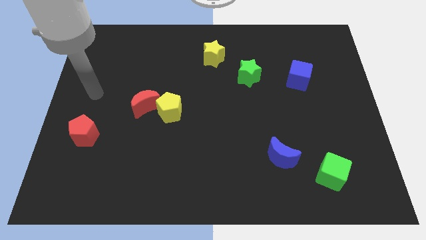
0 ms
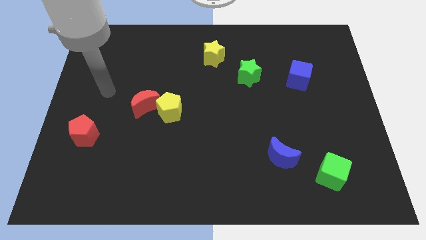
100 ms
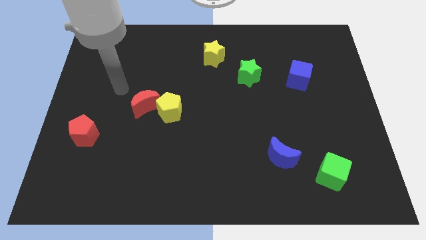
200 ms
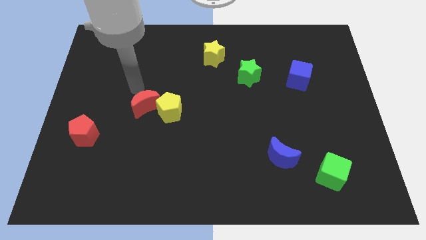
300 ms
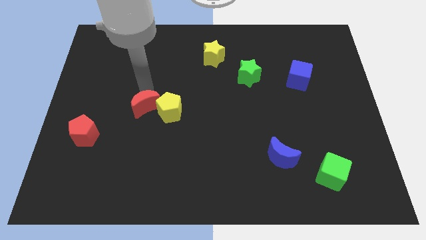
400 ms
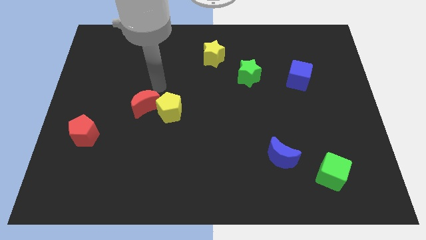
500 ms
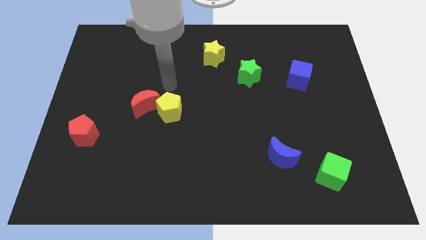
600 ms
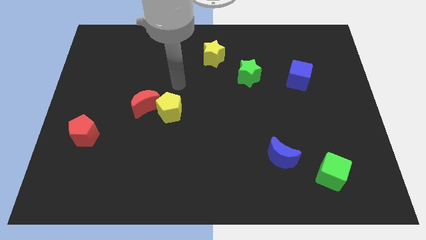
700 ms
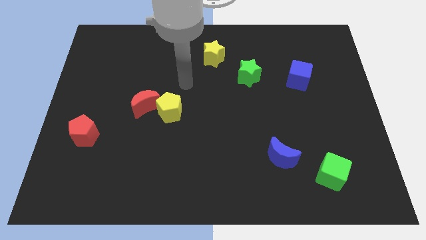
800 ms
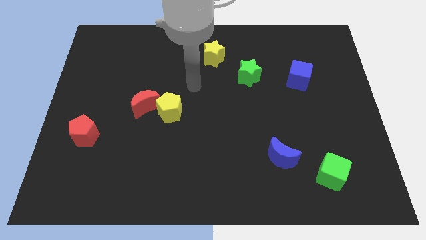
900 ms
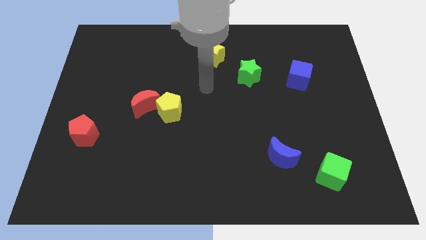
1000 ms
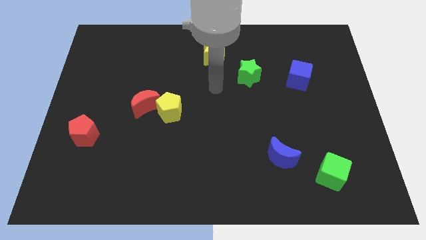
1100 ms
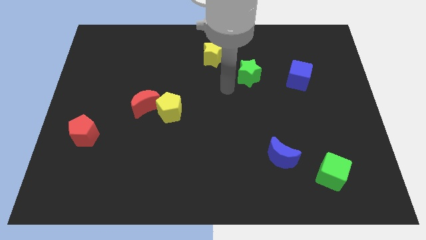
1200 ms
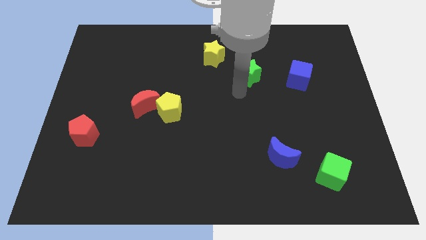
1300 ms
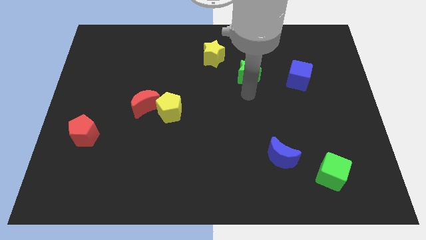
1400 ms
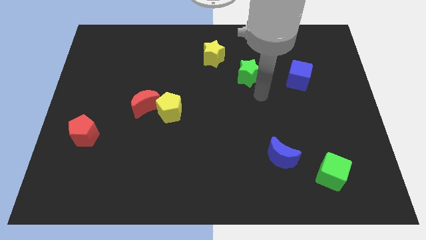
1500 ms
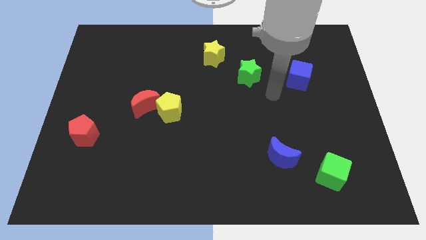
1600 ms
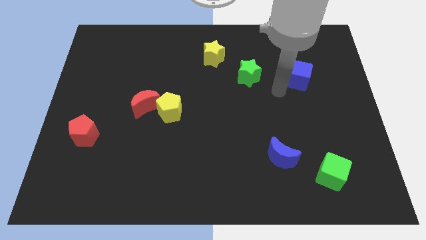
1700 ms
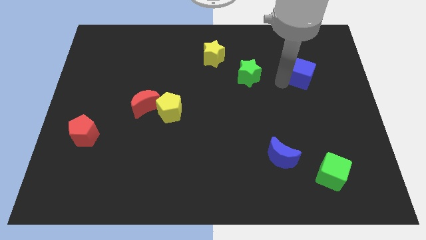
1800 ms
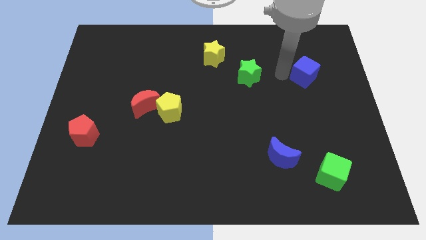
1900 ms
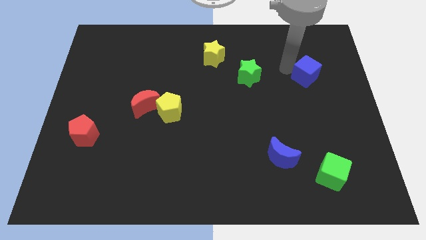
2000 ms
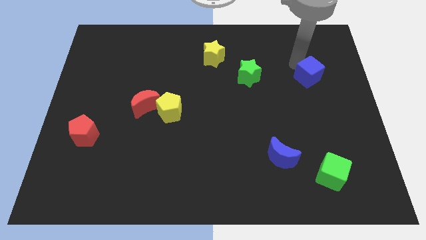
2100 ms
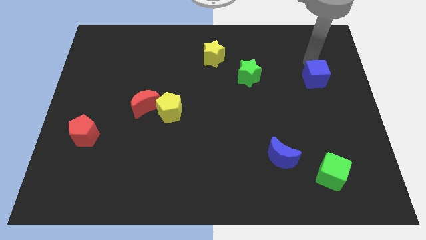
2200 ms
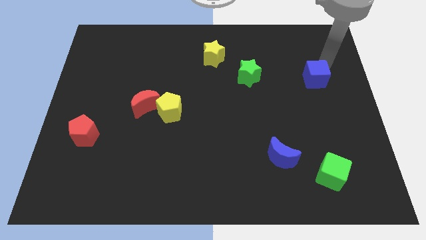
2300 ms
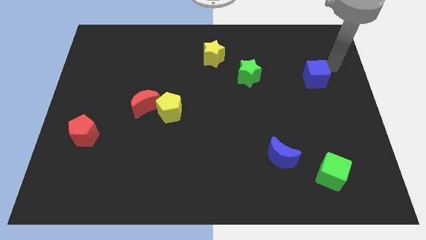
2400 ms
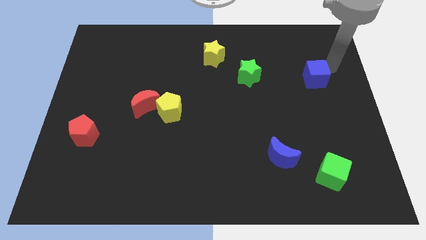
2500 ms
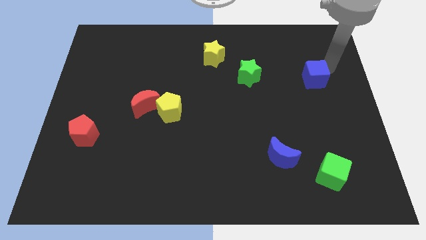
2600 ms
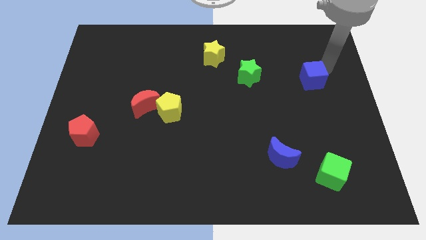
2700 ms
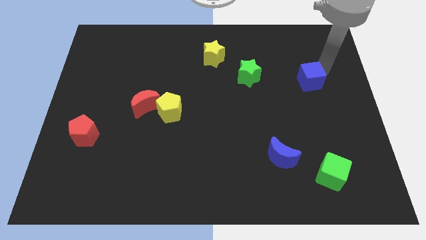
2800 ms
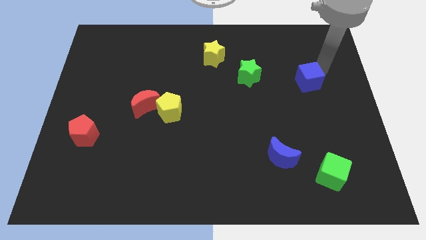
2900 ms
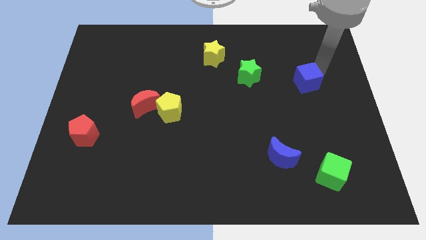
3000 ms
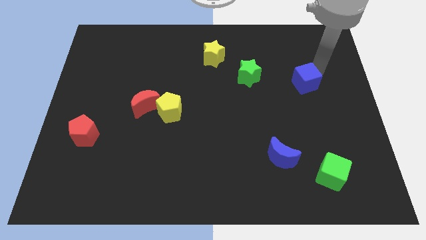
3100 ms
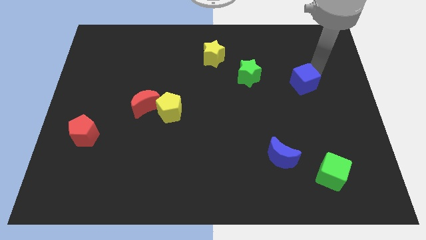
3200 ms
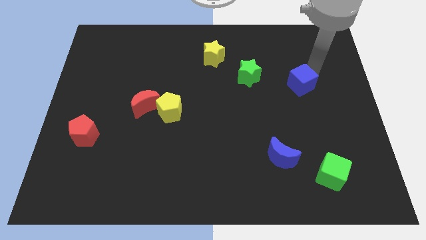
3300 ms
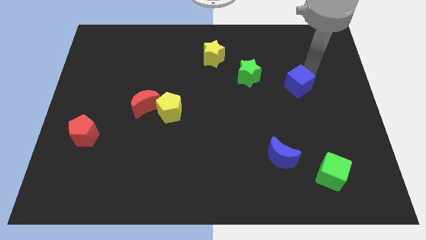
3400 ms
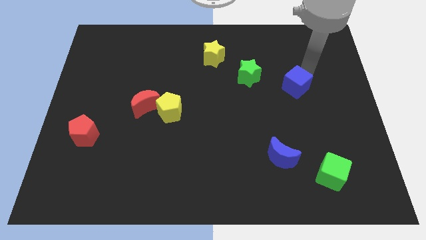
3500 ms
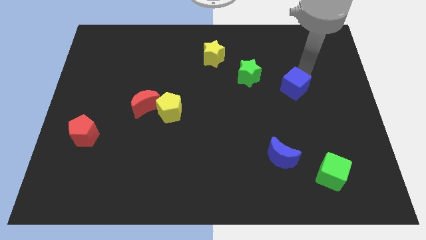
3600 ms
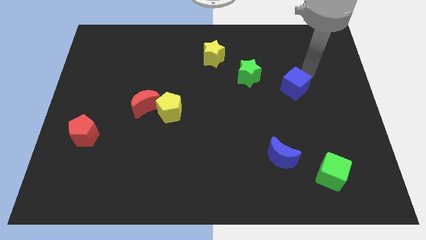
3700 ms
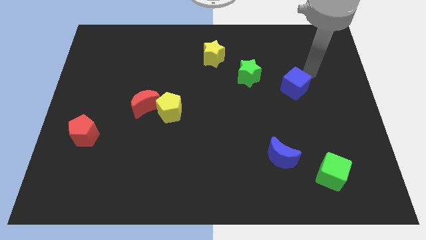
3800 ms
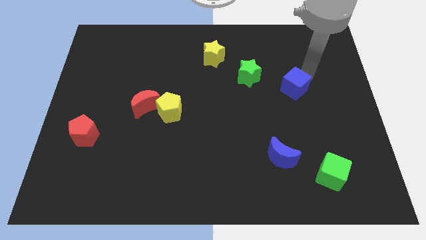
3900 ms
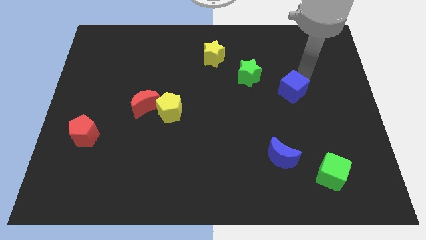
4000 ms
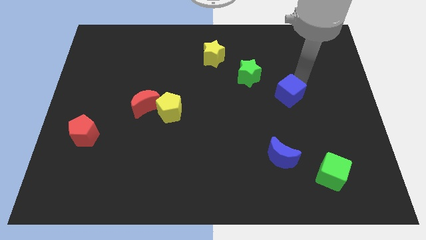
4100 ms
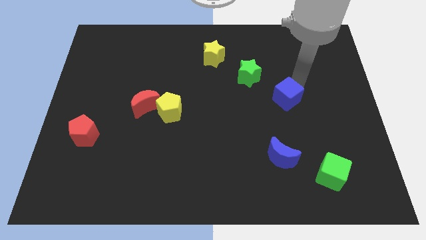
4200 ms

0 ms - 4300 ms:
slide the blue cube down and left diagonally somewhat

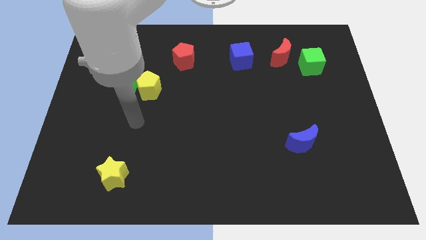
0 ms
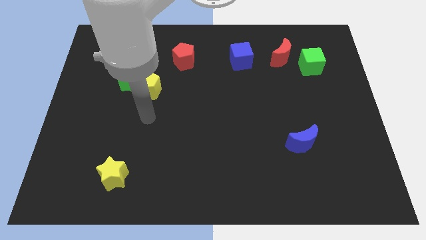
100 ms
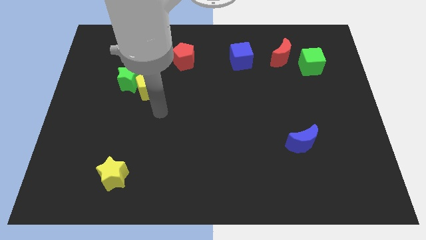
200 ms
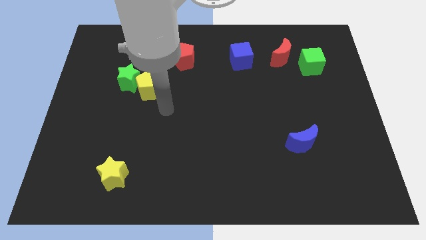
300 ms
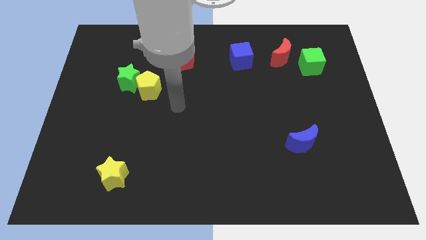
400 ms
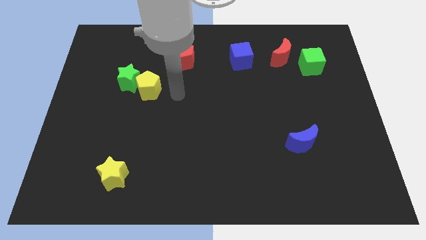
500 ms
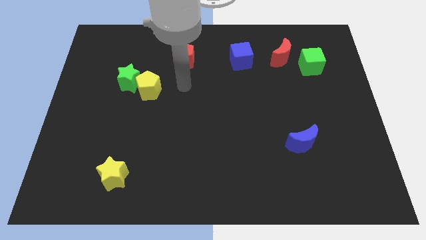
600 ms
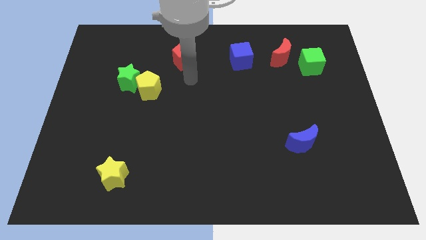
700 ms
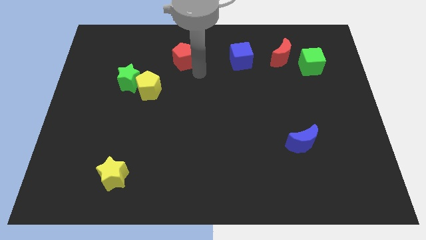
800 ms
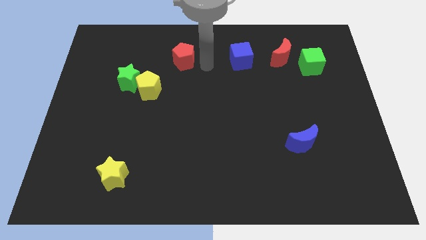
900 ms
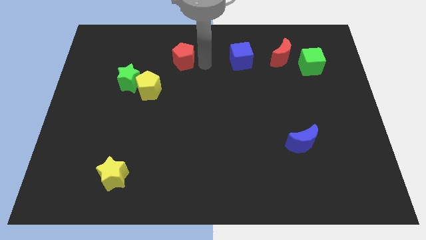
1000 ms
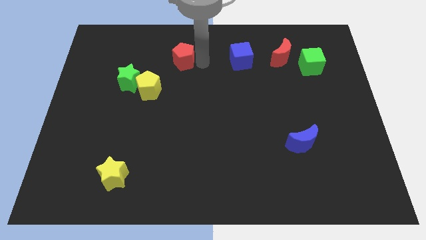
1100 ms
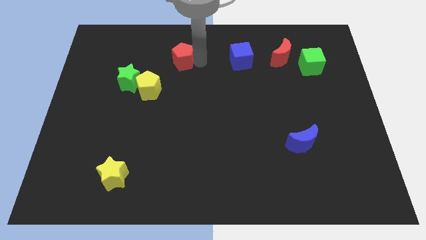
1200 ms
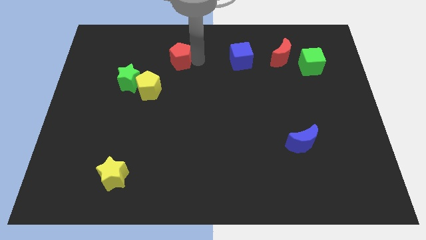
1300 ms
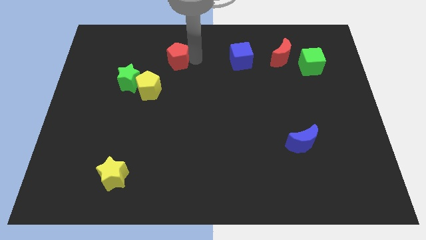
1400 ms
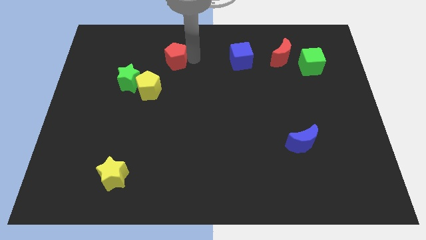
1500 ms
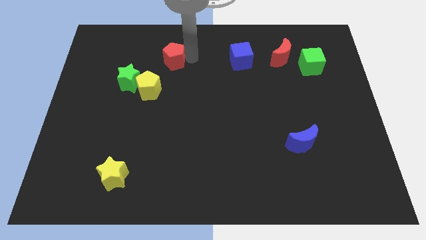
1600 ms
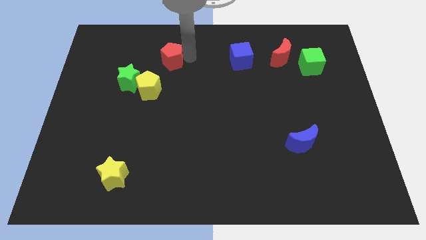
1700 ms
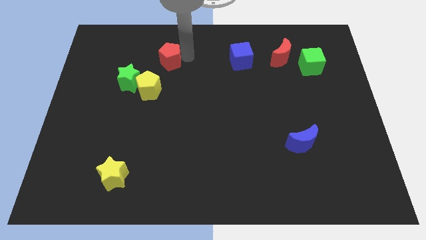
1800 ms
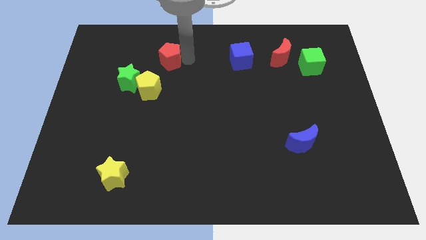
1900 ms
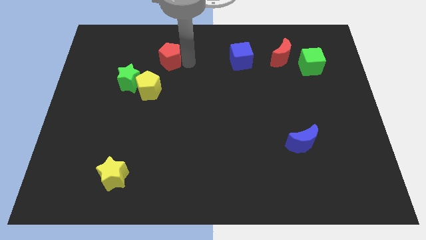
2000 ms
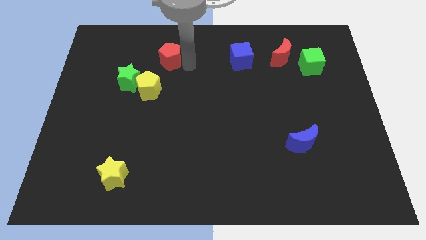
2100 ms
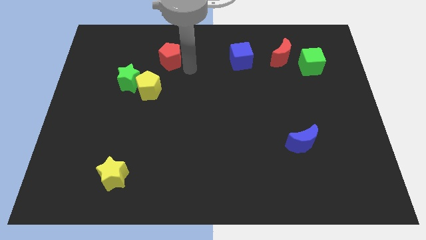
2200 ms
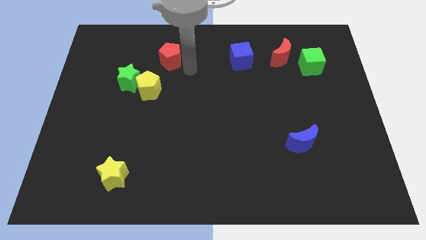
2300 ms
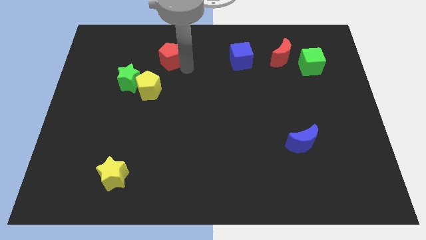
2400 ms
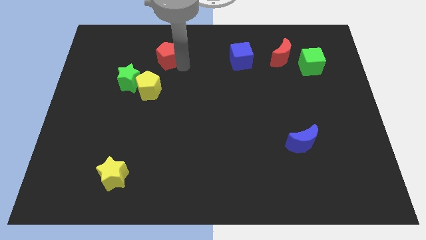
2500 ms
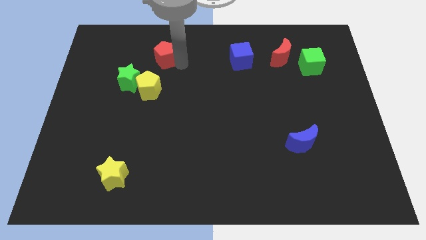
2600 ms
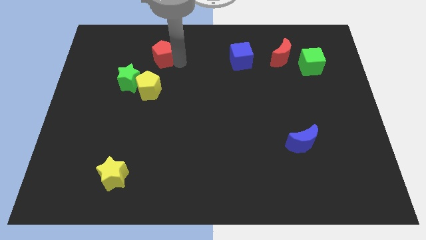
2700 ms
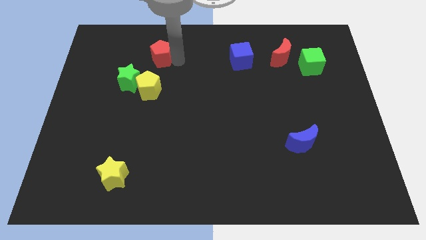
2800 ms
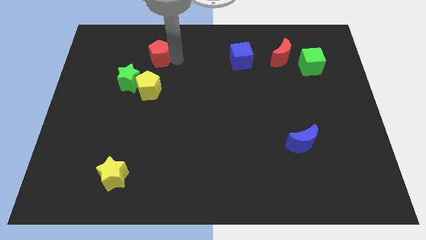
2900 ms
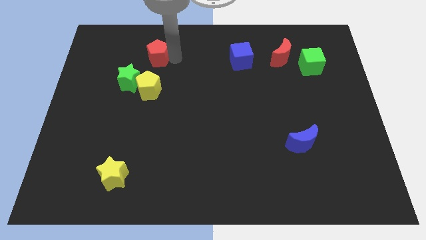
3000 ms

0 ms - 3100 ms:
move the red pentagon a little bit left

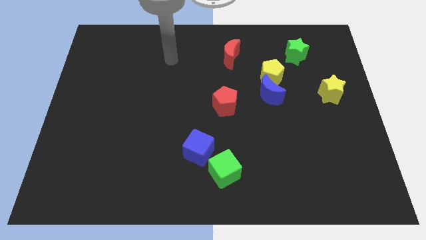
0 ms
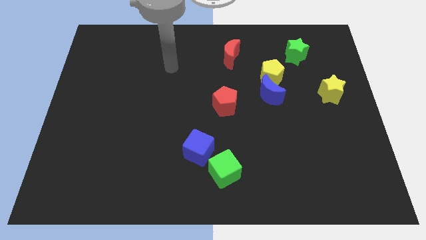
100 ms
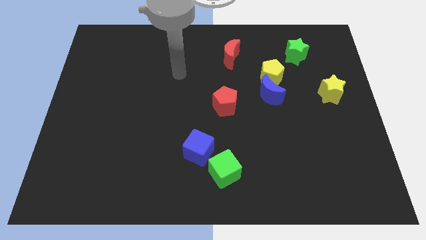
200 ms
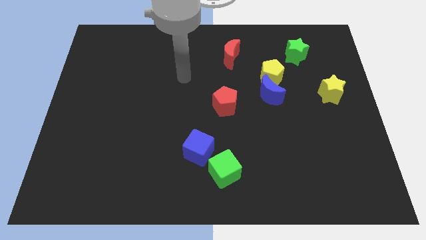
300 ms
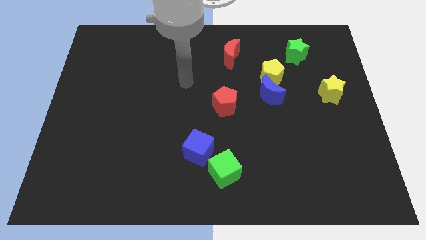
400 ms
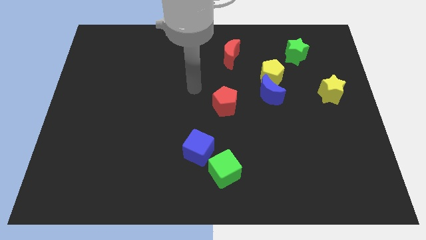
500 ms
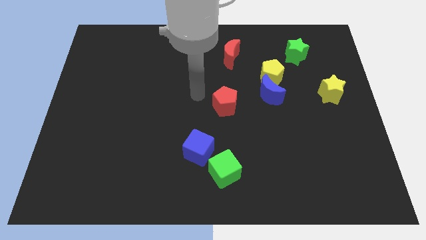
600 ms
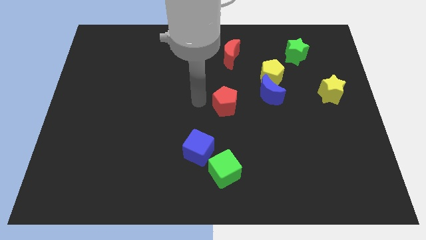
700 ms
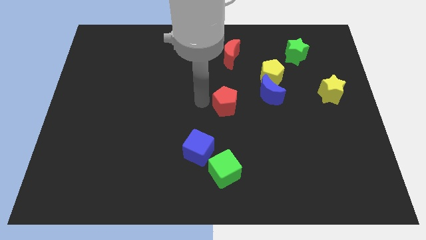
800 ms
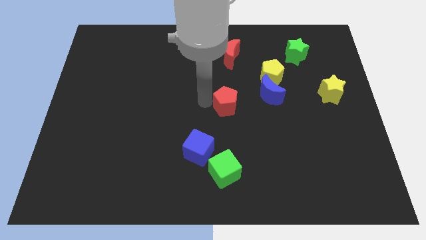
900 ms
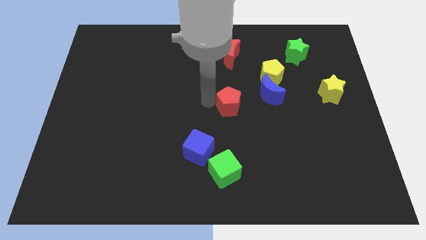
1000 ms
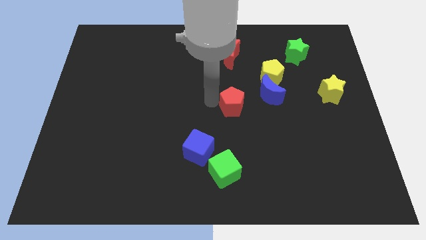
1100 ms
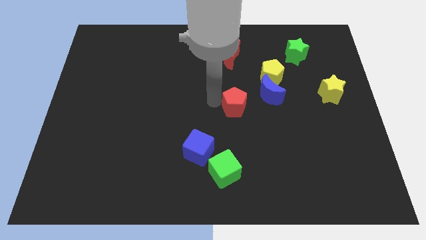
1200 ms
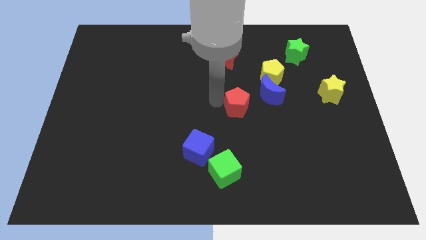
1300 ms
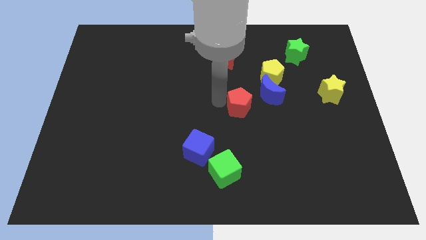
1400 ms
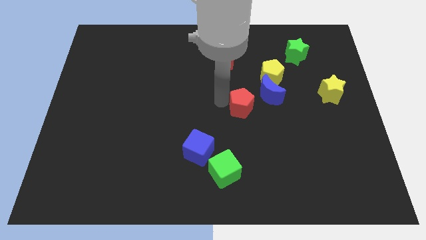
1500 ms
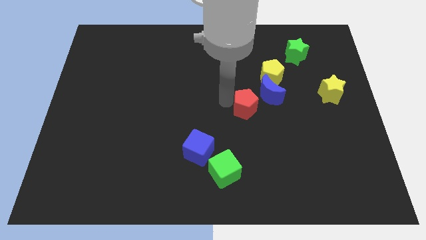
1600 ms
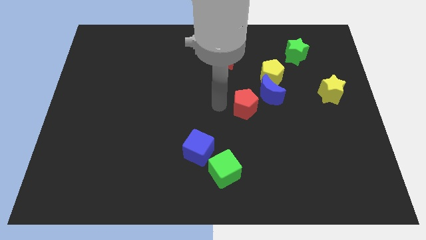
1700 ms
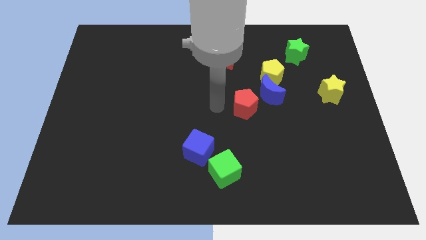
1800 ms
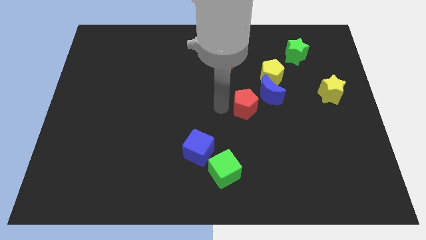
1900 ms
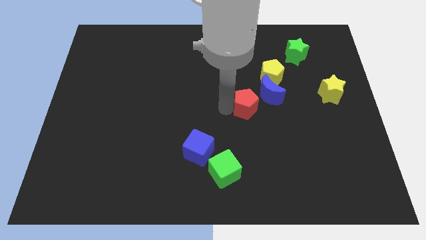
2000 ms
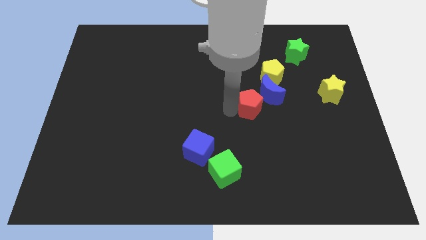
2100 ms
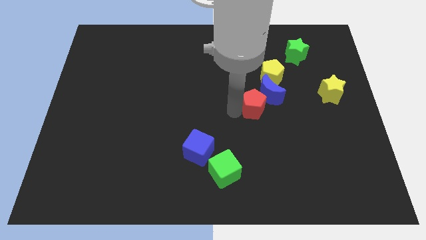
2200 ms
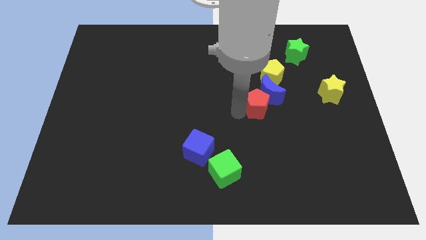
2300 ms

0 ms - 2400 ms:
slightly push the red pentagon to the right
